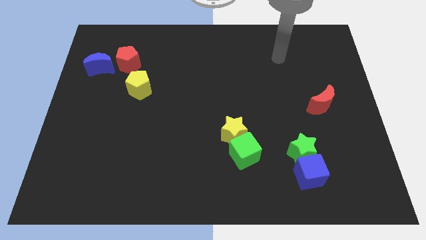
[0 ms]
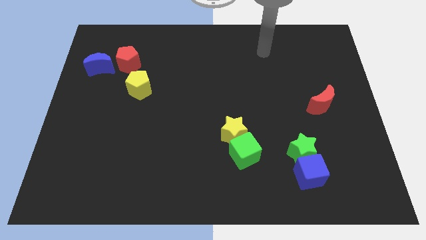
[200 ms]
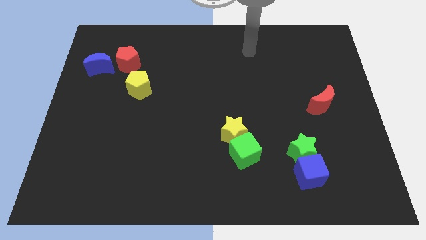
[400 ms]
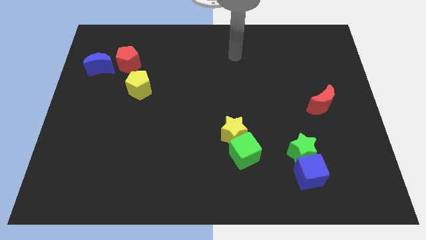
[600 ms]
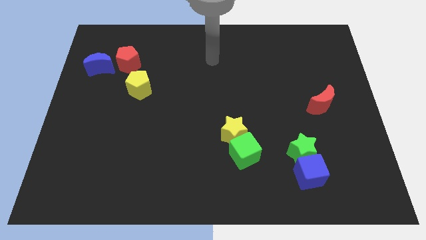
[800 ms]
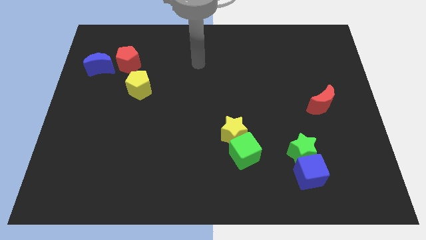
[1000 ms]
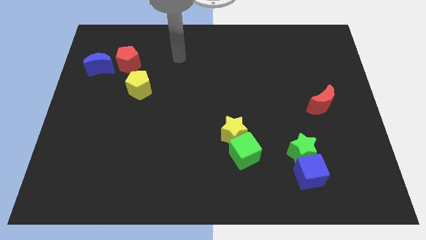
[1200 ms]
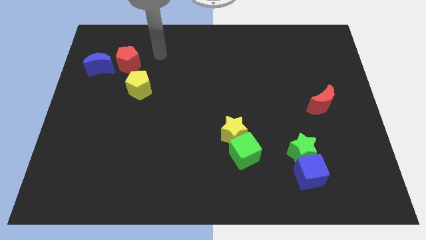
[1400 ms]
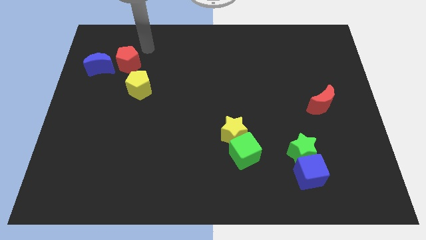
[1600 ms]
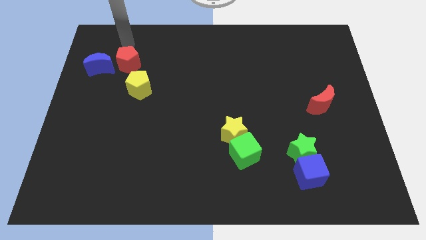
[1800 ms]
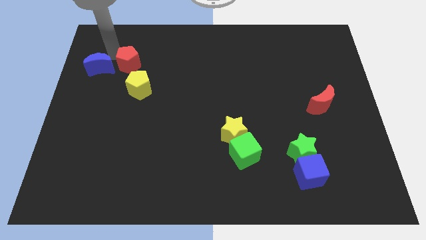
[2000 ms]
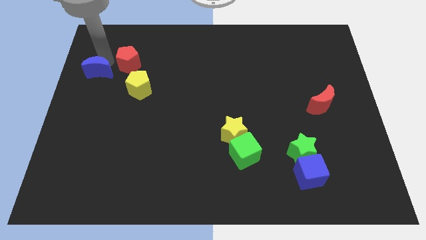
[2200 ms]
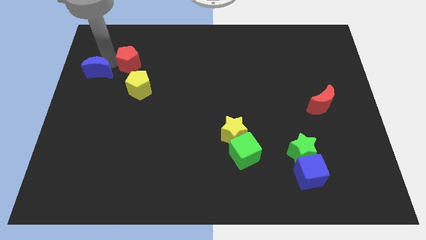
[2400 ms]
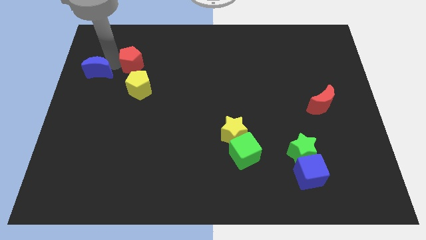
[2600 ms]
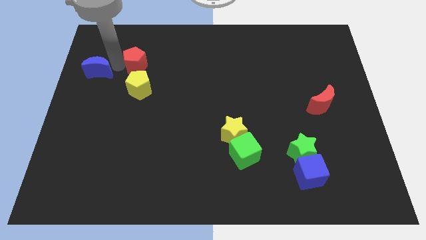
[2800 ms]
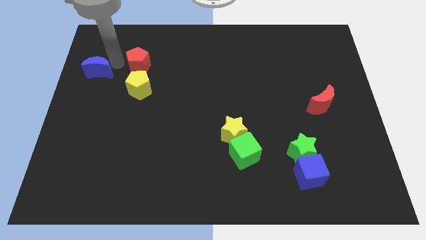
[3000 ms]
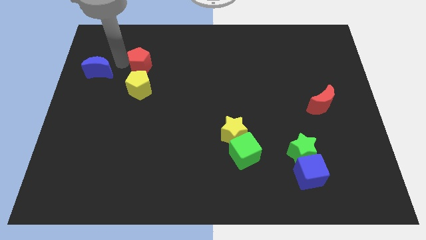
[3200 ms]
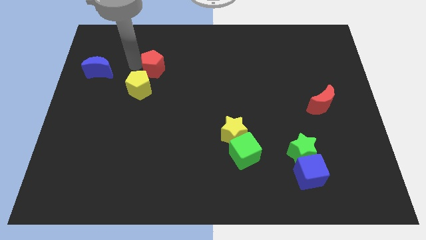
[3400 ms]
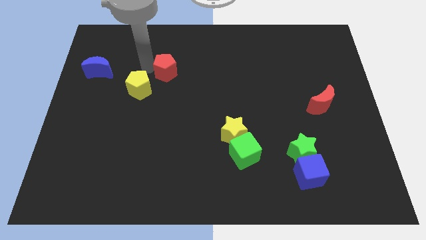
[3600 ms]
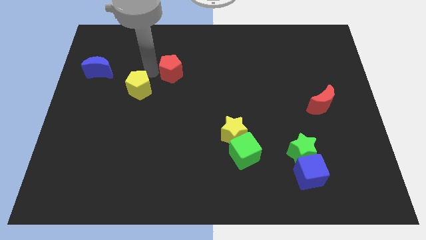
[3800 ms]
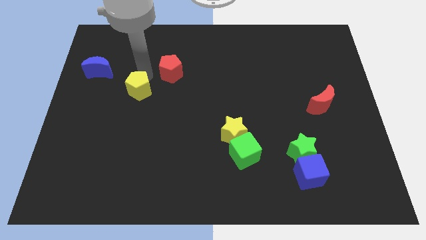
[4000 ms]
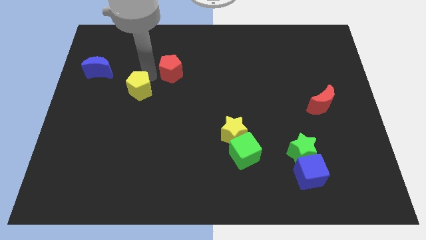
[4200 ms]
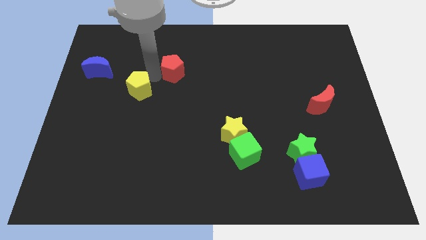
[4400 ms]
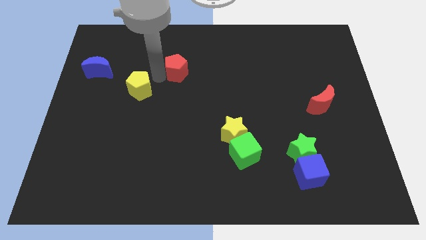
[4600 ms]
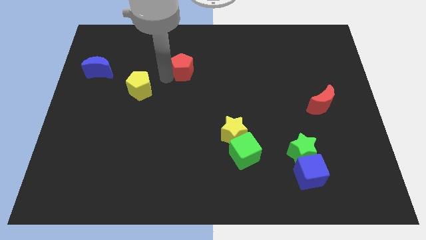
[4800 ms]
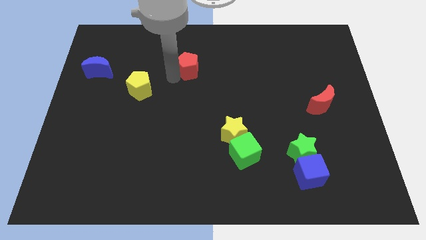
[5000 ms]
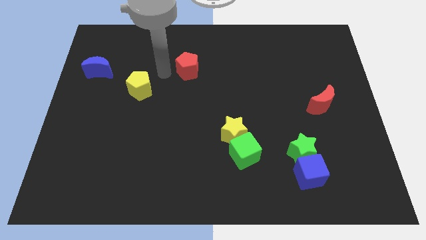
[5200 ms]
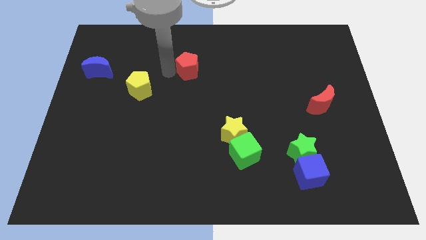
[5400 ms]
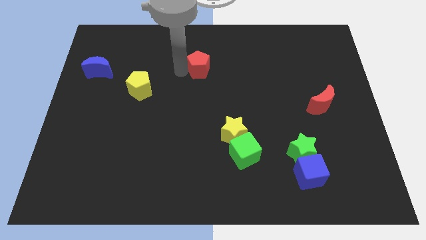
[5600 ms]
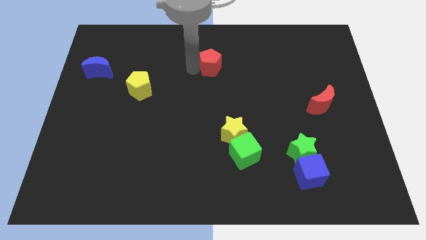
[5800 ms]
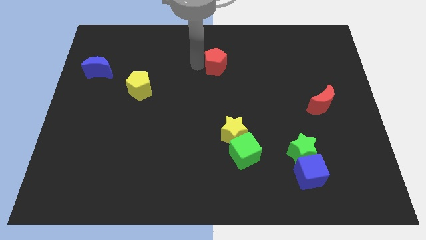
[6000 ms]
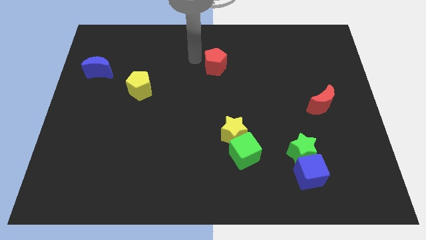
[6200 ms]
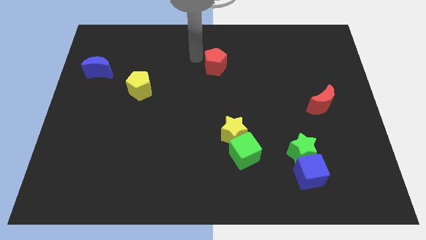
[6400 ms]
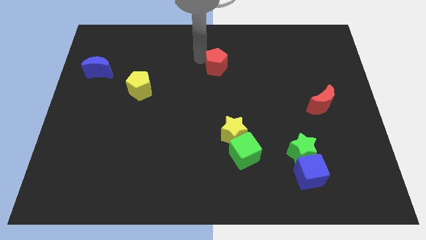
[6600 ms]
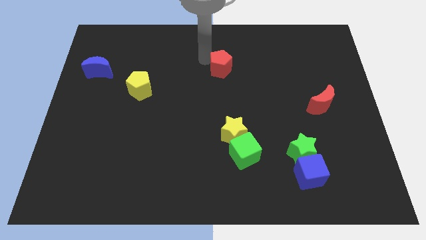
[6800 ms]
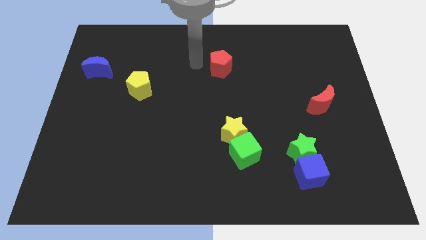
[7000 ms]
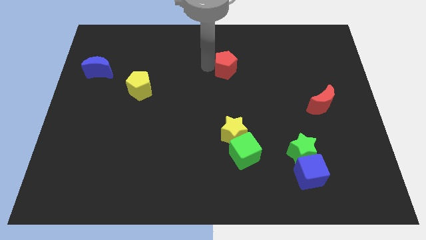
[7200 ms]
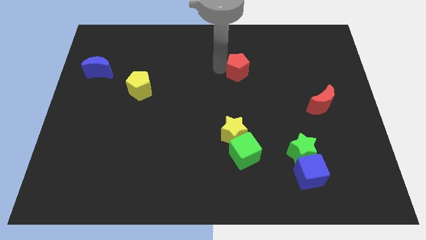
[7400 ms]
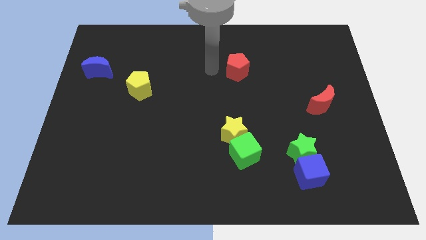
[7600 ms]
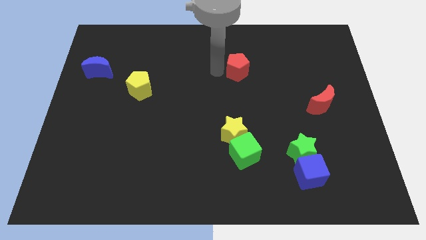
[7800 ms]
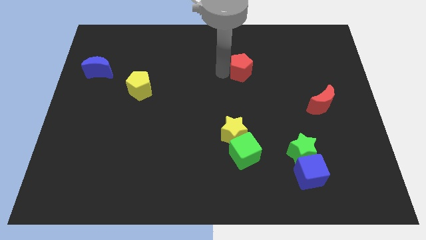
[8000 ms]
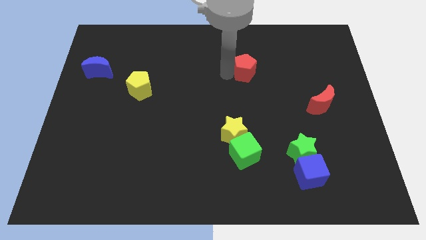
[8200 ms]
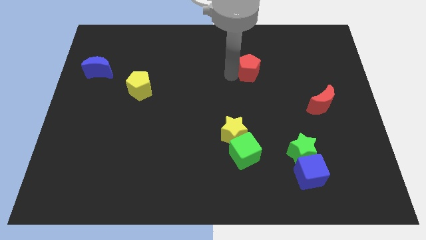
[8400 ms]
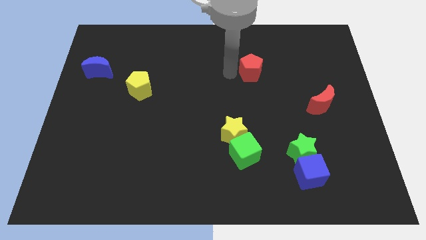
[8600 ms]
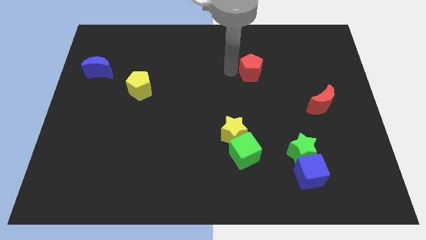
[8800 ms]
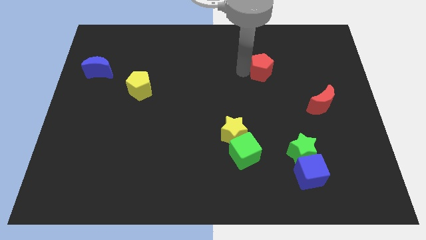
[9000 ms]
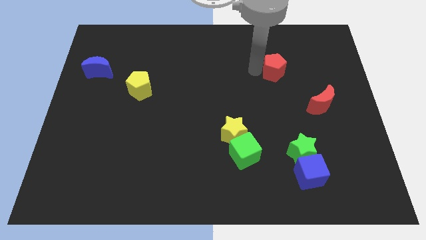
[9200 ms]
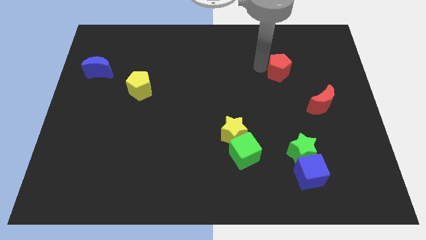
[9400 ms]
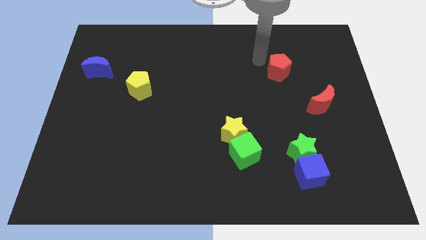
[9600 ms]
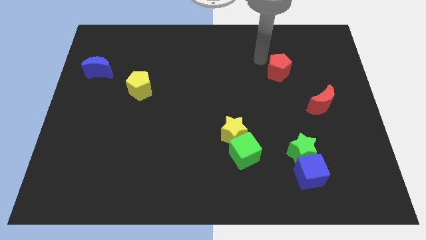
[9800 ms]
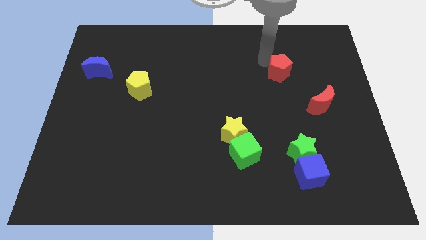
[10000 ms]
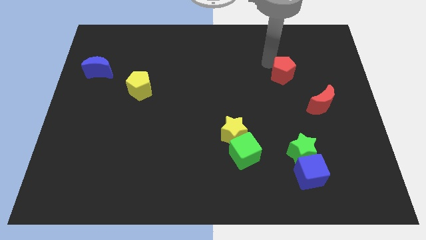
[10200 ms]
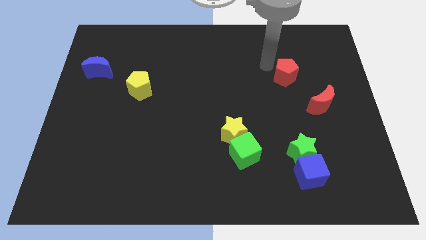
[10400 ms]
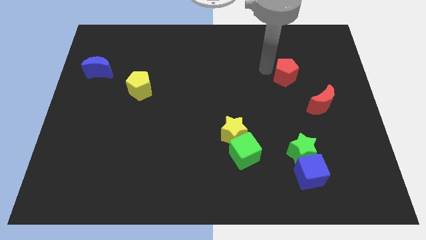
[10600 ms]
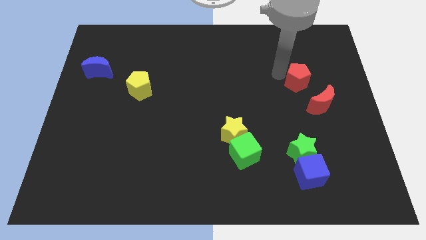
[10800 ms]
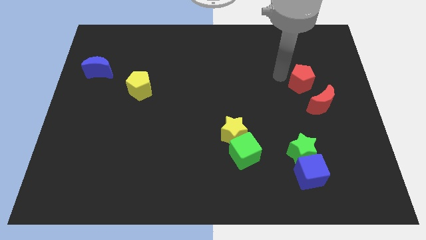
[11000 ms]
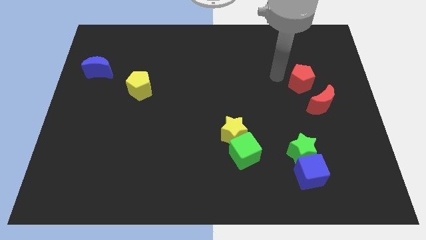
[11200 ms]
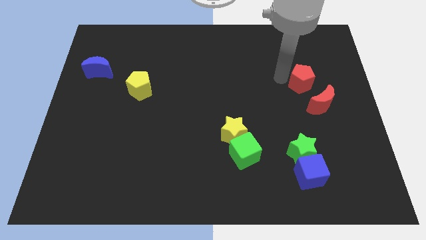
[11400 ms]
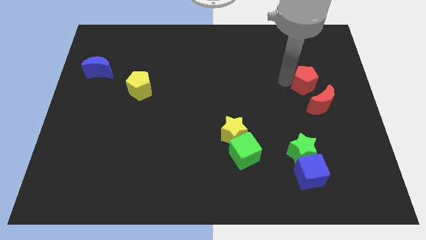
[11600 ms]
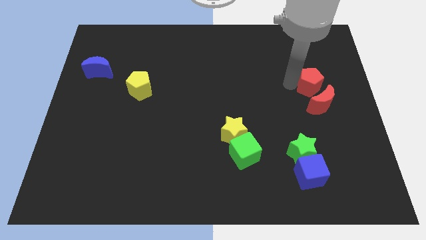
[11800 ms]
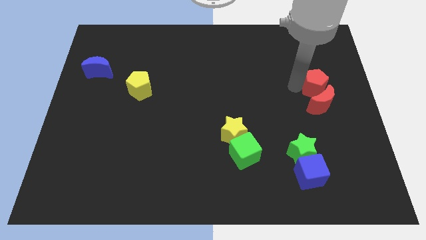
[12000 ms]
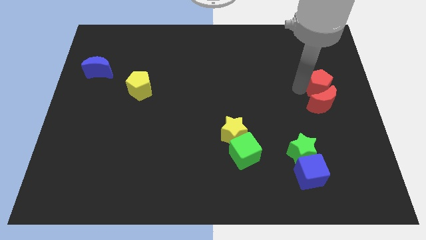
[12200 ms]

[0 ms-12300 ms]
push the red pentagon to the center right

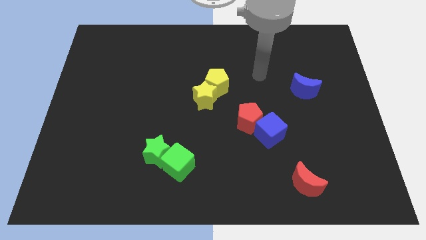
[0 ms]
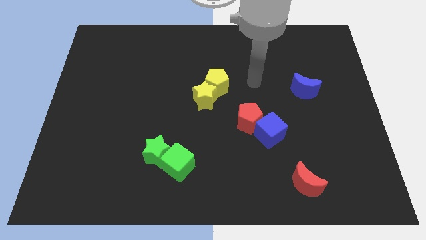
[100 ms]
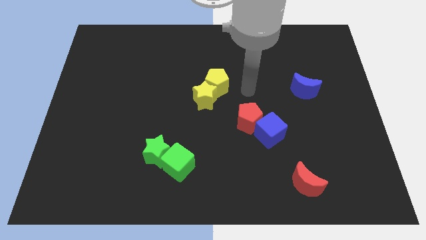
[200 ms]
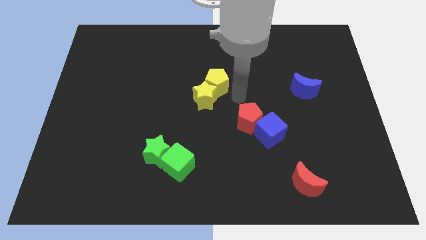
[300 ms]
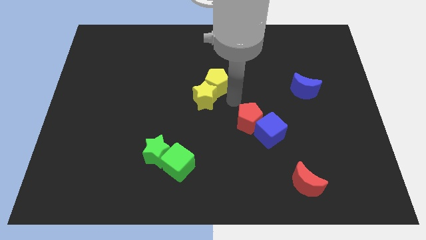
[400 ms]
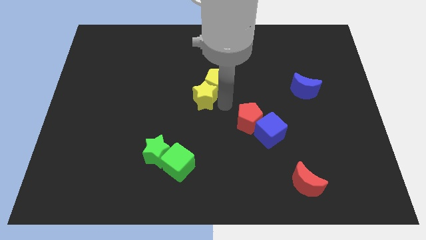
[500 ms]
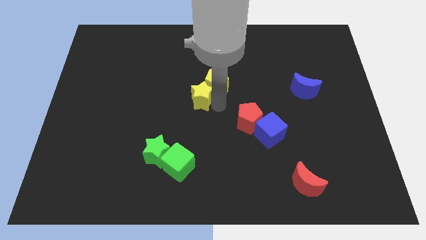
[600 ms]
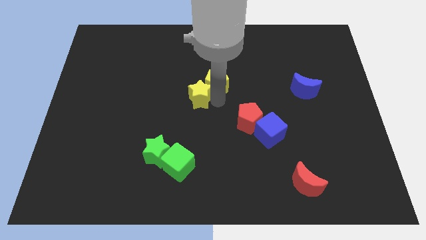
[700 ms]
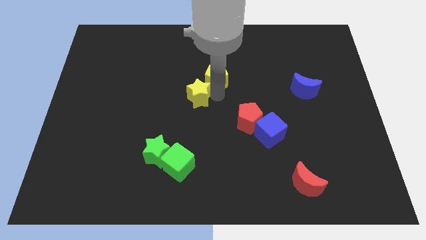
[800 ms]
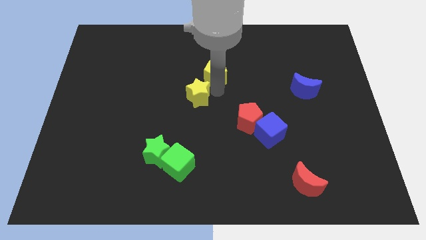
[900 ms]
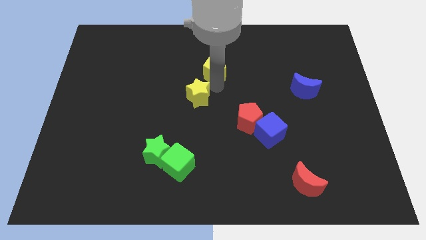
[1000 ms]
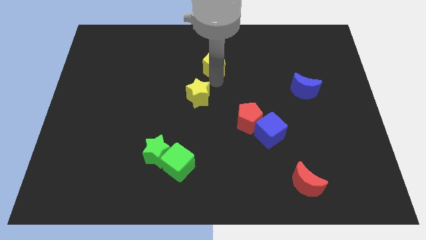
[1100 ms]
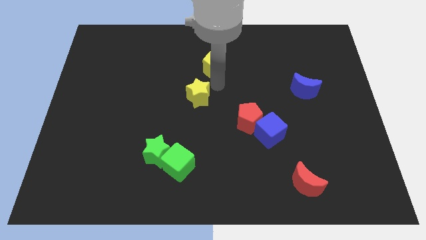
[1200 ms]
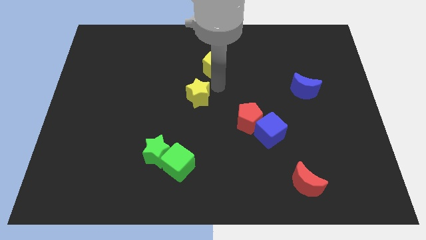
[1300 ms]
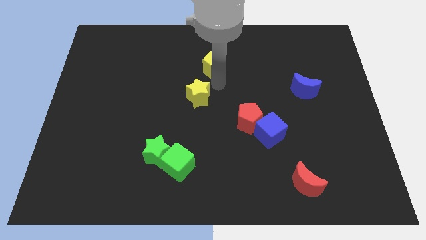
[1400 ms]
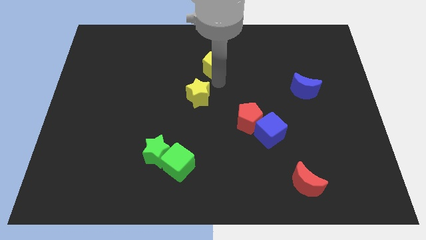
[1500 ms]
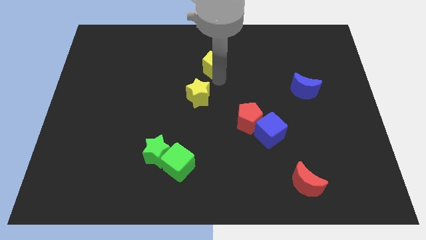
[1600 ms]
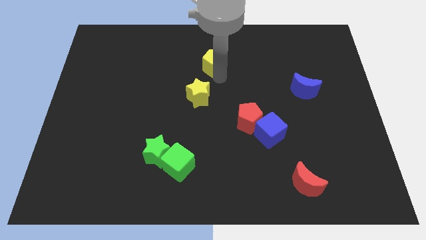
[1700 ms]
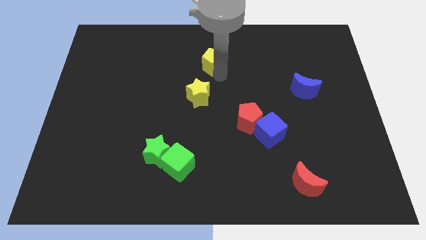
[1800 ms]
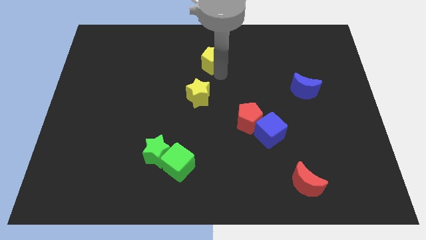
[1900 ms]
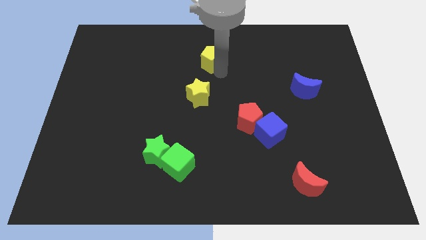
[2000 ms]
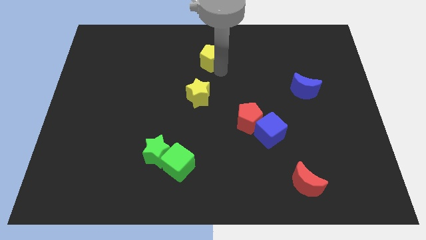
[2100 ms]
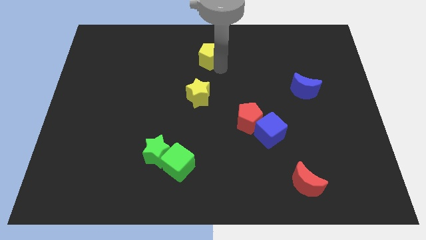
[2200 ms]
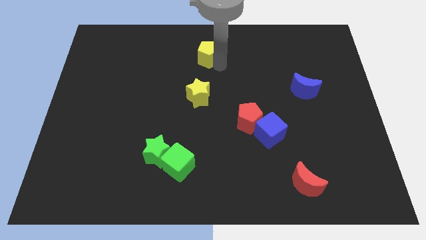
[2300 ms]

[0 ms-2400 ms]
move the yellow pentagon to the top
